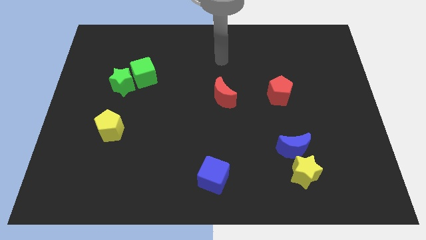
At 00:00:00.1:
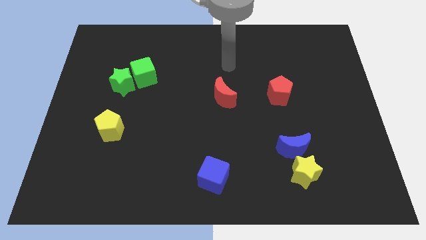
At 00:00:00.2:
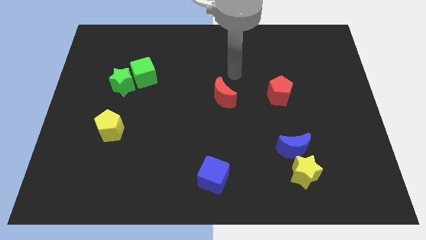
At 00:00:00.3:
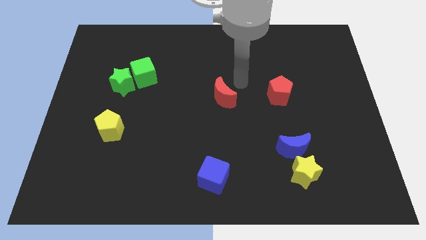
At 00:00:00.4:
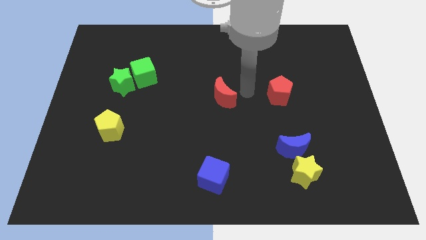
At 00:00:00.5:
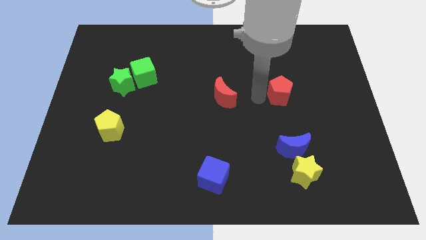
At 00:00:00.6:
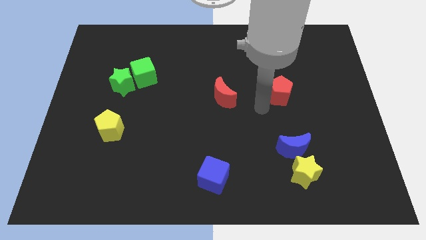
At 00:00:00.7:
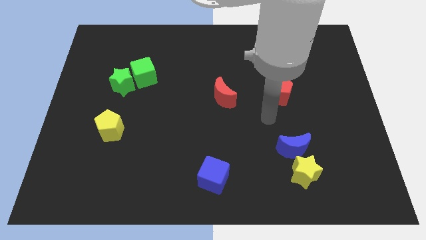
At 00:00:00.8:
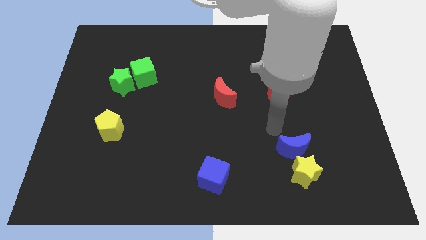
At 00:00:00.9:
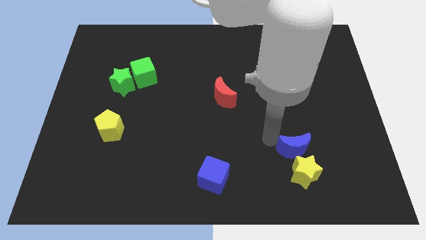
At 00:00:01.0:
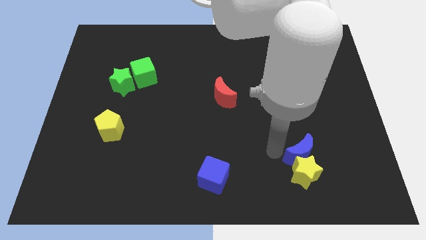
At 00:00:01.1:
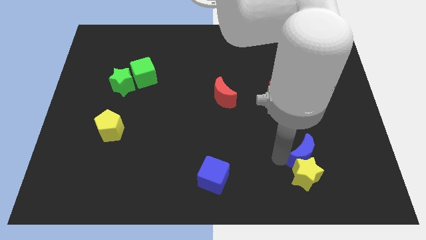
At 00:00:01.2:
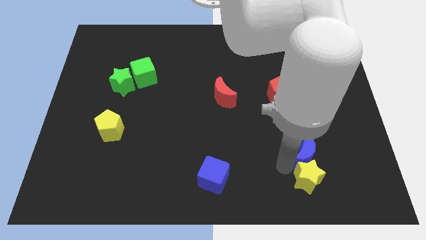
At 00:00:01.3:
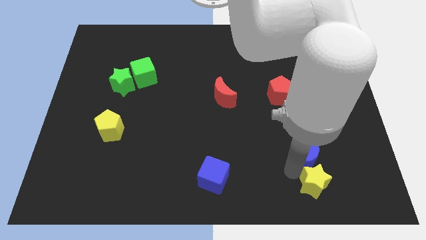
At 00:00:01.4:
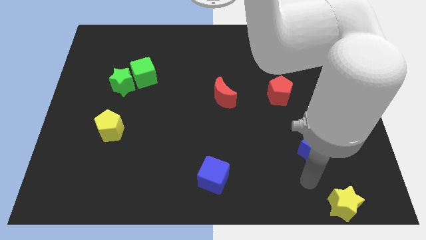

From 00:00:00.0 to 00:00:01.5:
move the blue moon away from the yellow star

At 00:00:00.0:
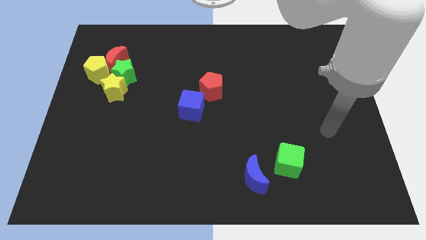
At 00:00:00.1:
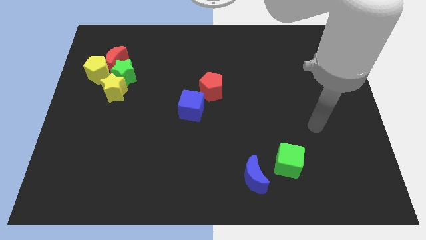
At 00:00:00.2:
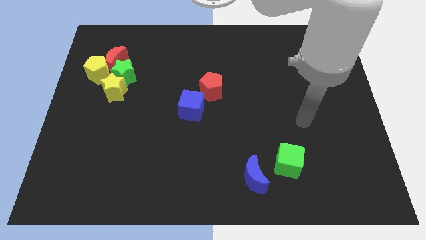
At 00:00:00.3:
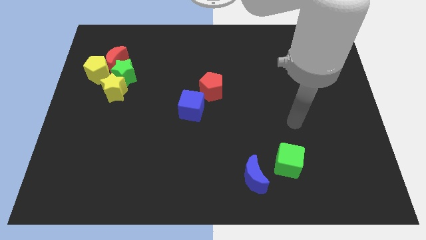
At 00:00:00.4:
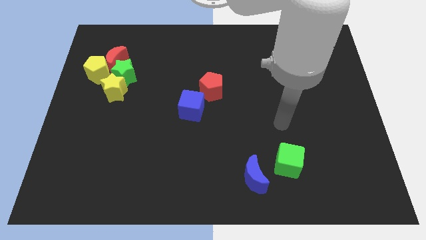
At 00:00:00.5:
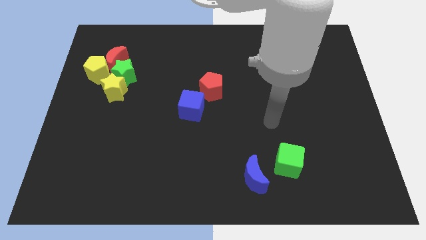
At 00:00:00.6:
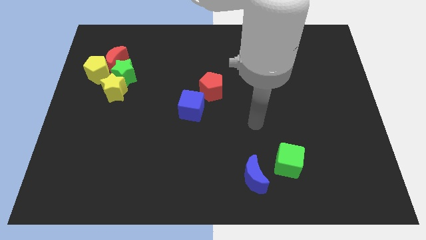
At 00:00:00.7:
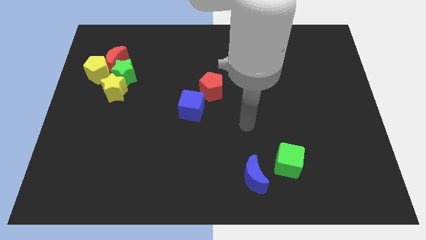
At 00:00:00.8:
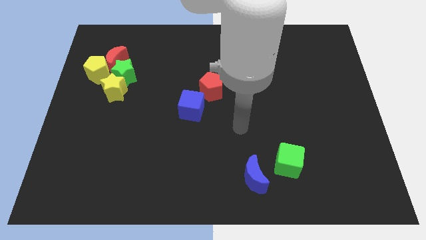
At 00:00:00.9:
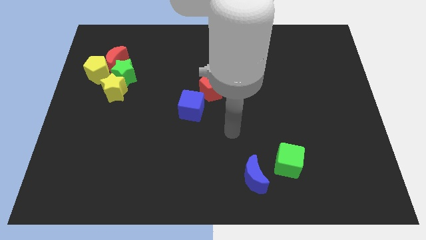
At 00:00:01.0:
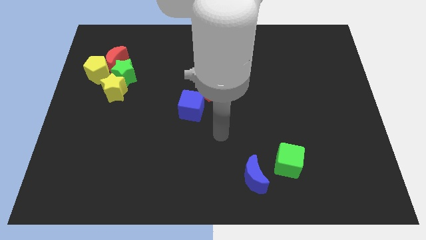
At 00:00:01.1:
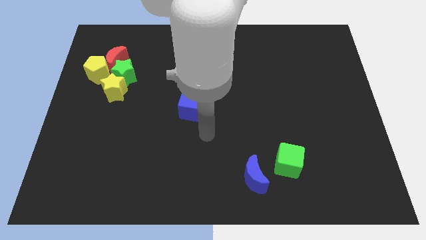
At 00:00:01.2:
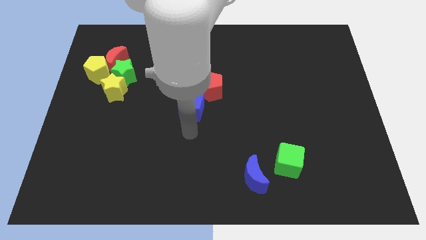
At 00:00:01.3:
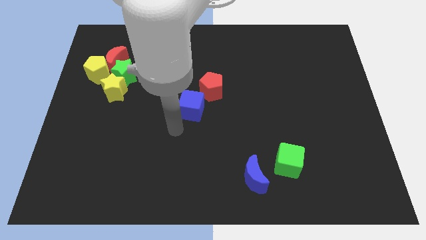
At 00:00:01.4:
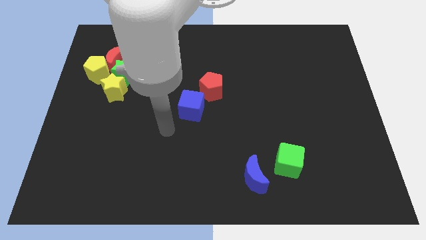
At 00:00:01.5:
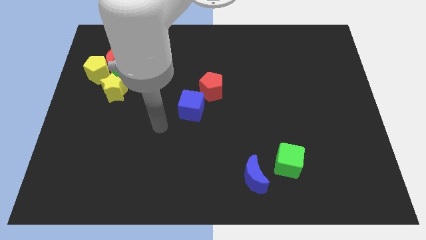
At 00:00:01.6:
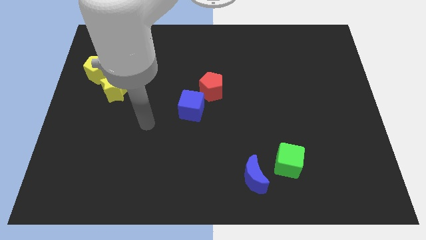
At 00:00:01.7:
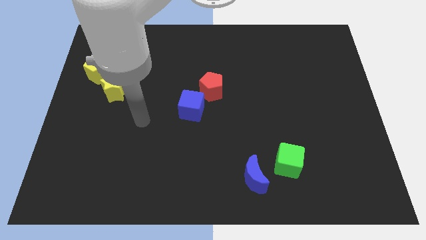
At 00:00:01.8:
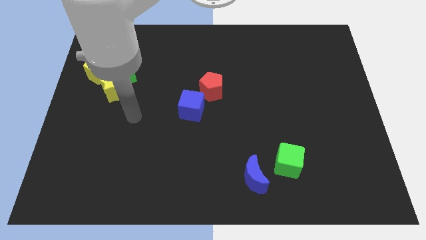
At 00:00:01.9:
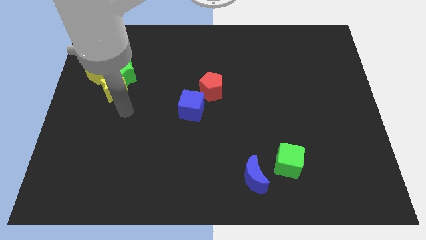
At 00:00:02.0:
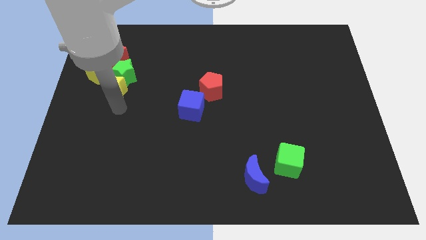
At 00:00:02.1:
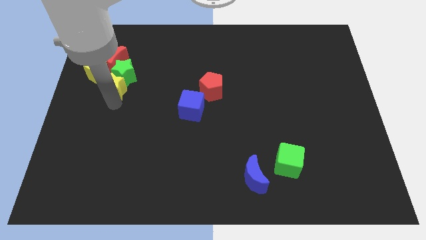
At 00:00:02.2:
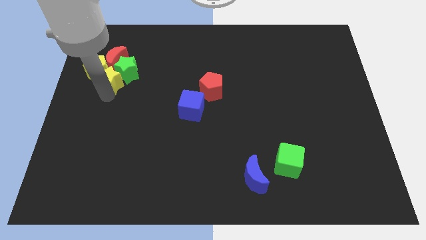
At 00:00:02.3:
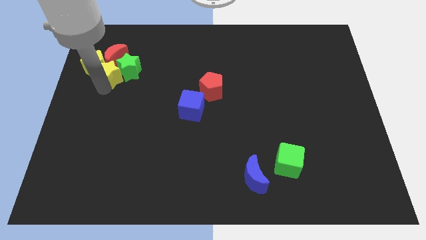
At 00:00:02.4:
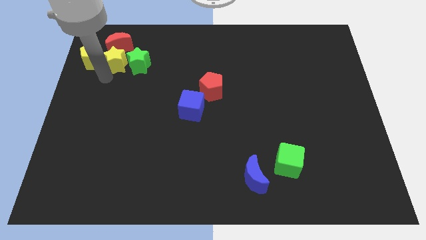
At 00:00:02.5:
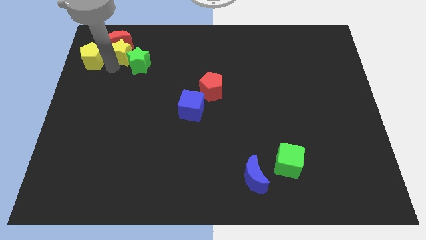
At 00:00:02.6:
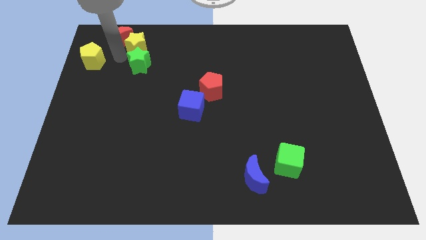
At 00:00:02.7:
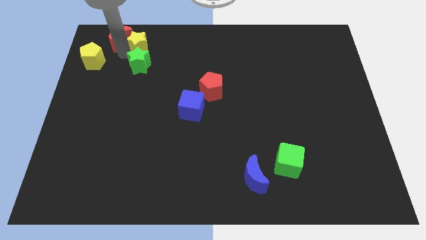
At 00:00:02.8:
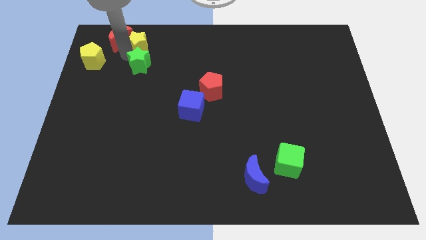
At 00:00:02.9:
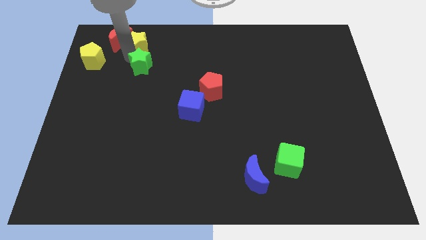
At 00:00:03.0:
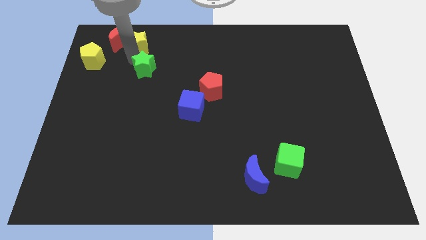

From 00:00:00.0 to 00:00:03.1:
separate the green star from the yellow star, red moon, and yellow pentagon

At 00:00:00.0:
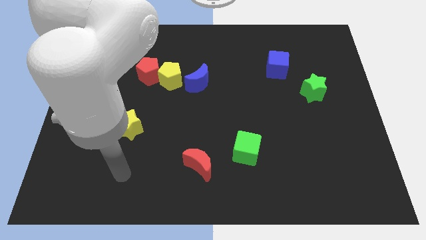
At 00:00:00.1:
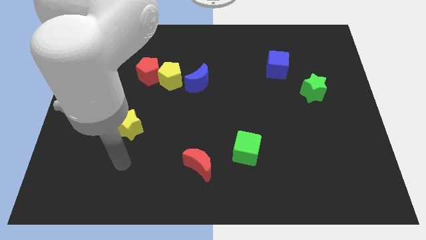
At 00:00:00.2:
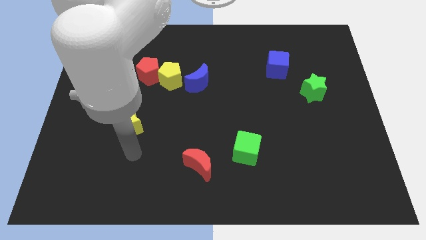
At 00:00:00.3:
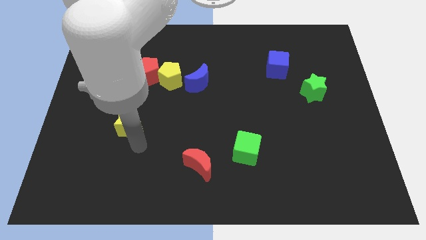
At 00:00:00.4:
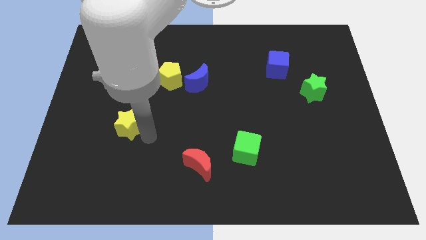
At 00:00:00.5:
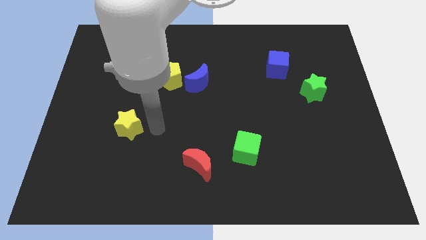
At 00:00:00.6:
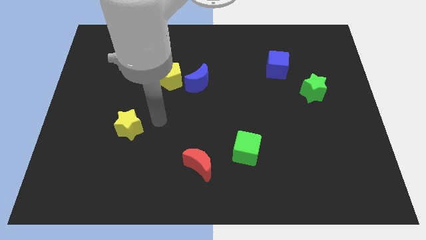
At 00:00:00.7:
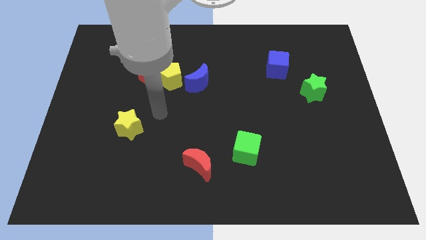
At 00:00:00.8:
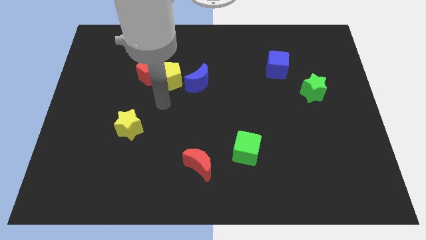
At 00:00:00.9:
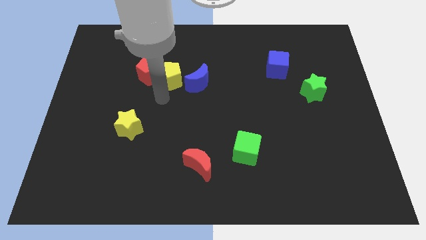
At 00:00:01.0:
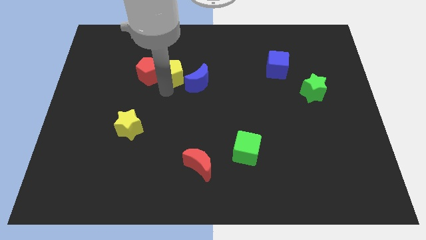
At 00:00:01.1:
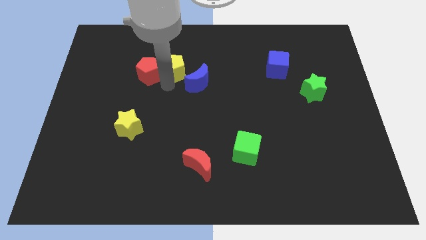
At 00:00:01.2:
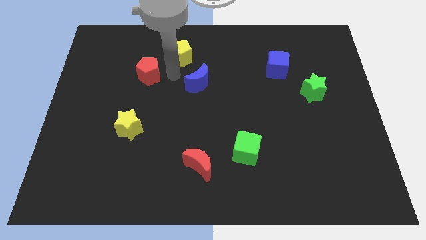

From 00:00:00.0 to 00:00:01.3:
separate the red pentagon from the yellow pentagon

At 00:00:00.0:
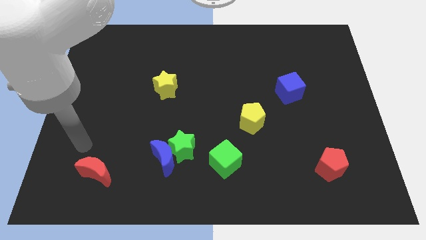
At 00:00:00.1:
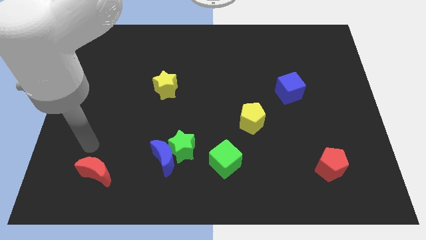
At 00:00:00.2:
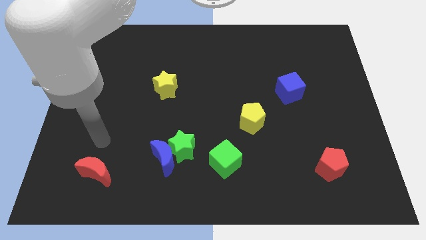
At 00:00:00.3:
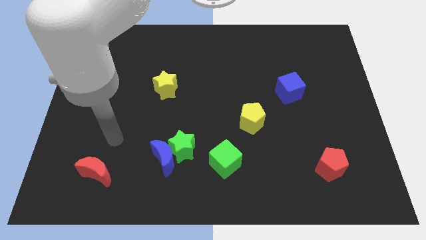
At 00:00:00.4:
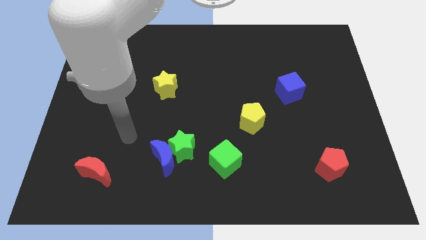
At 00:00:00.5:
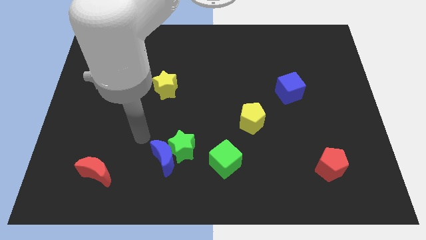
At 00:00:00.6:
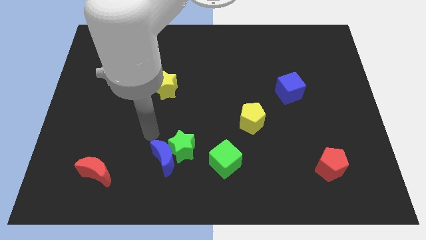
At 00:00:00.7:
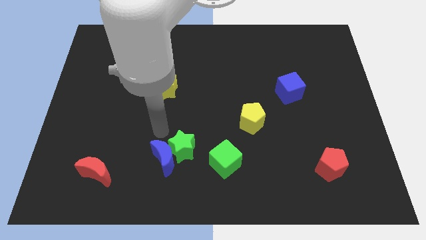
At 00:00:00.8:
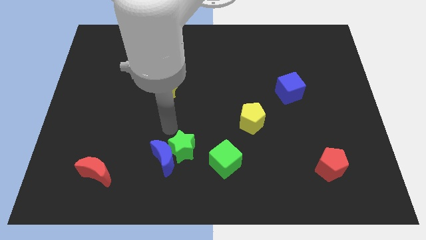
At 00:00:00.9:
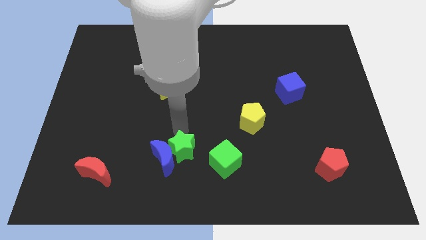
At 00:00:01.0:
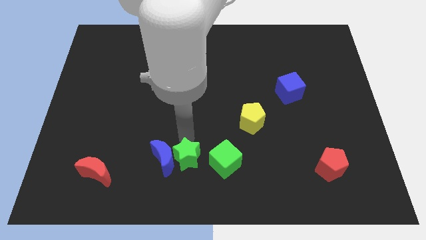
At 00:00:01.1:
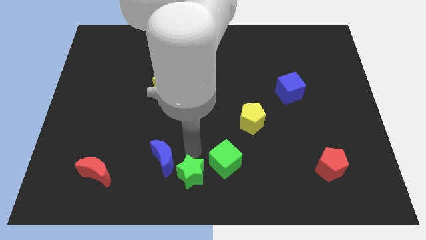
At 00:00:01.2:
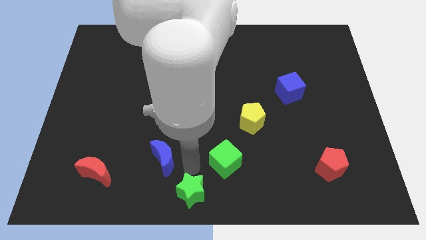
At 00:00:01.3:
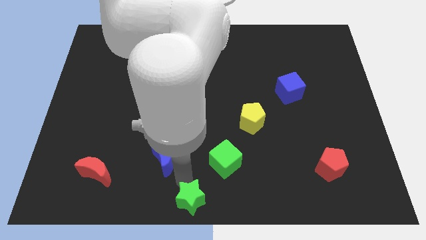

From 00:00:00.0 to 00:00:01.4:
separate the blue moon from the green star

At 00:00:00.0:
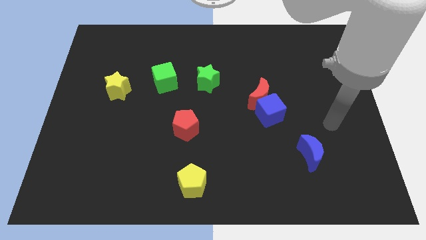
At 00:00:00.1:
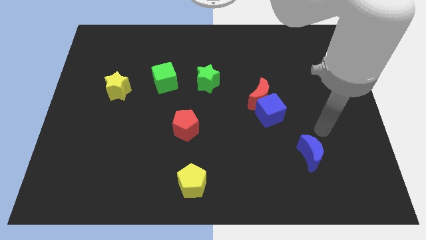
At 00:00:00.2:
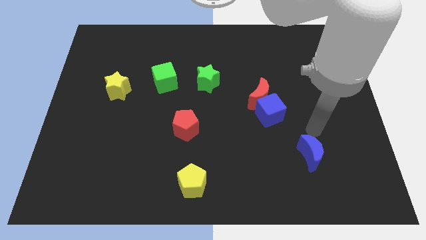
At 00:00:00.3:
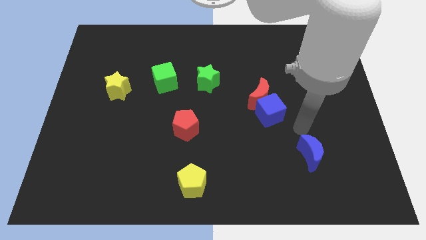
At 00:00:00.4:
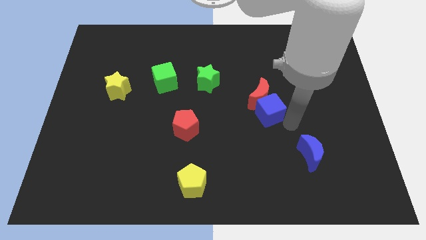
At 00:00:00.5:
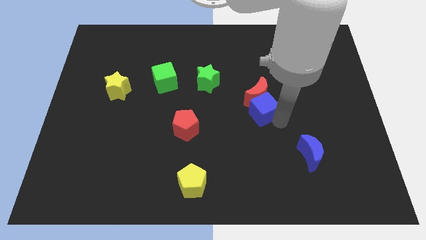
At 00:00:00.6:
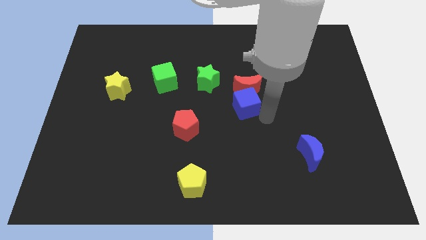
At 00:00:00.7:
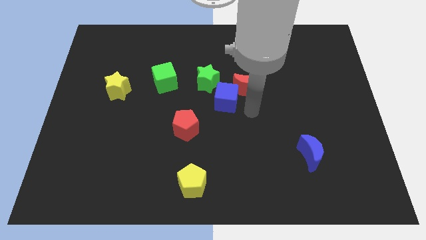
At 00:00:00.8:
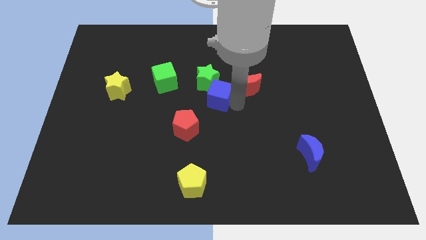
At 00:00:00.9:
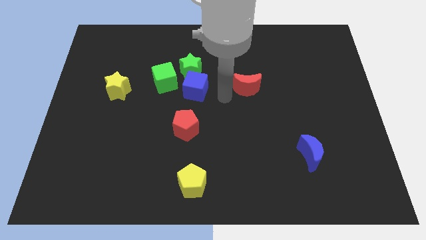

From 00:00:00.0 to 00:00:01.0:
pull the red moon apart from the blue cube

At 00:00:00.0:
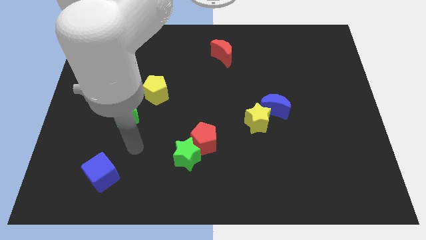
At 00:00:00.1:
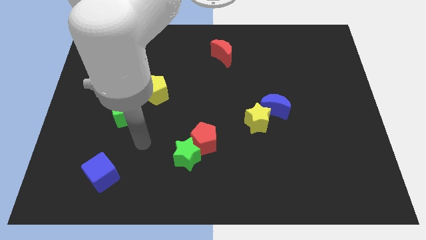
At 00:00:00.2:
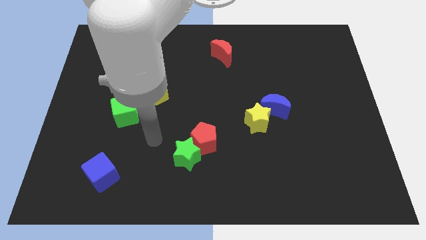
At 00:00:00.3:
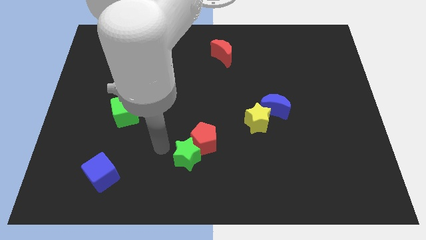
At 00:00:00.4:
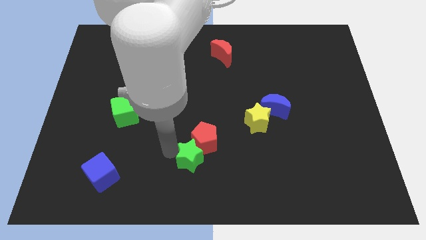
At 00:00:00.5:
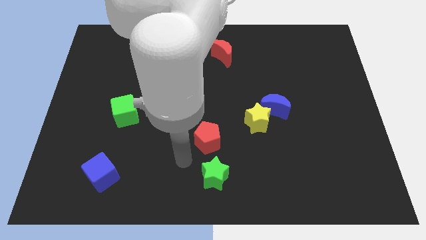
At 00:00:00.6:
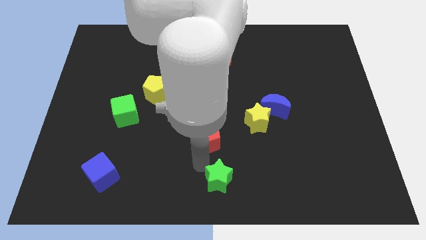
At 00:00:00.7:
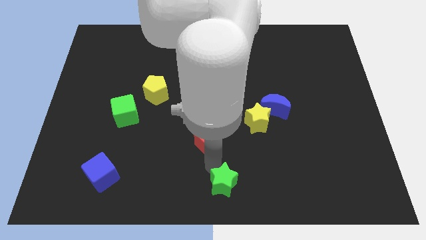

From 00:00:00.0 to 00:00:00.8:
separate the red pentagon from the green star
